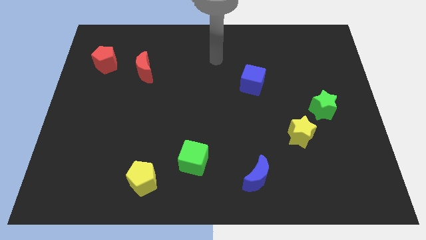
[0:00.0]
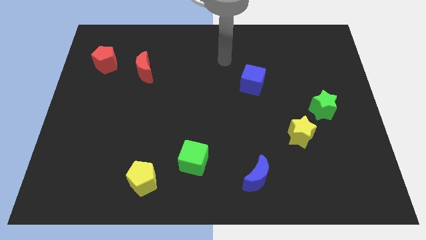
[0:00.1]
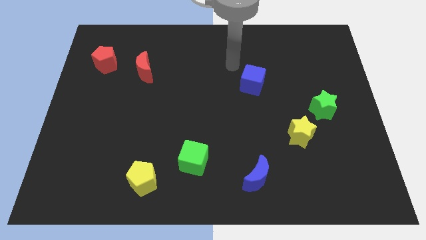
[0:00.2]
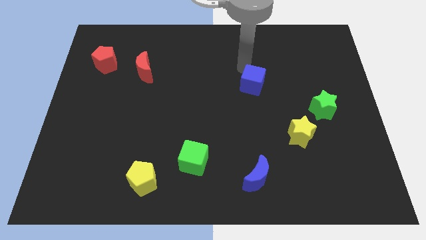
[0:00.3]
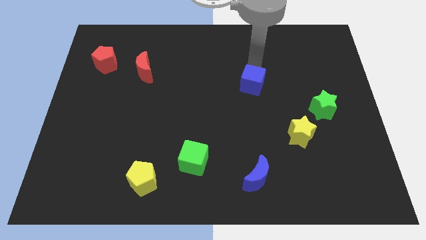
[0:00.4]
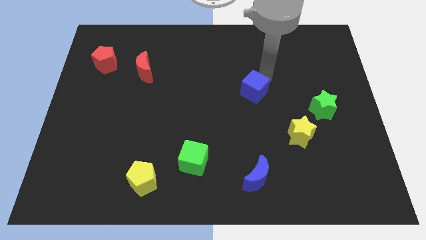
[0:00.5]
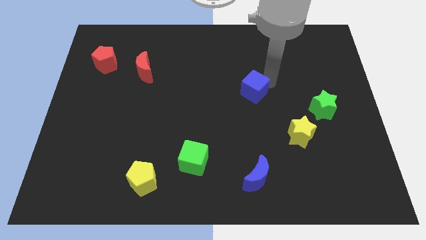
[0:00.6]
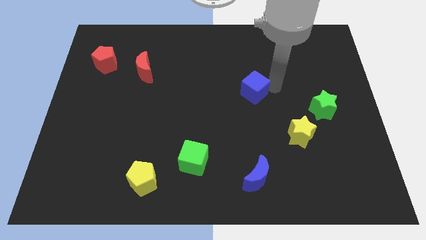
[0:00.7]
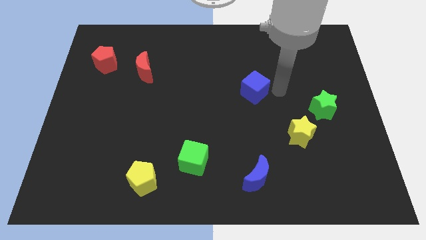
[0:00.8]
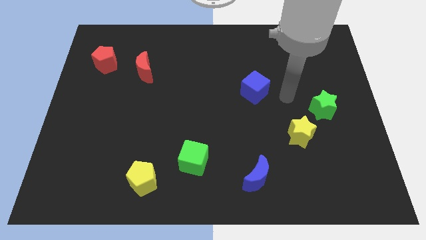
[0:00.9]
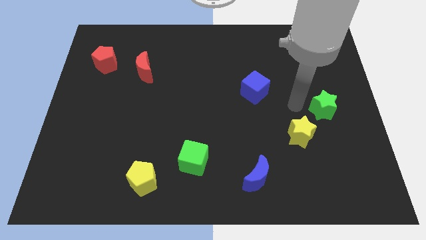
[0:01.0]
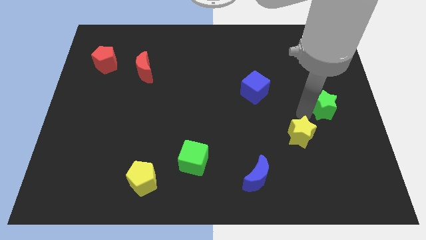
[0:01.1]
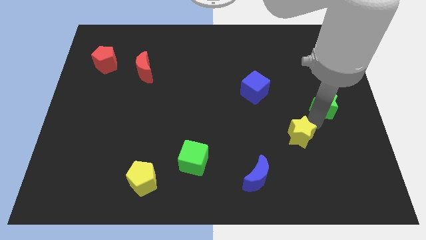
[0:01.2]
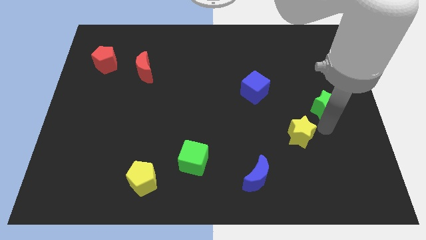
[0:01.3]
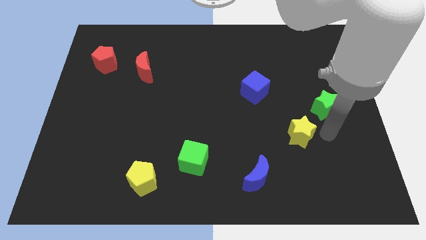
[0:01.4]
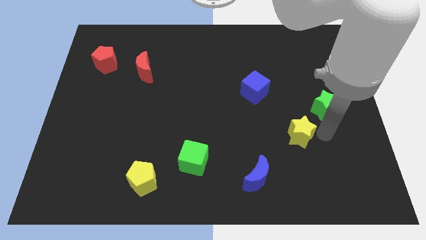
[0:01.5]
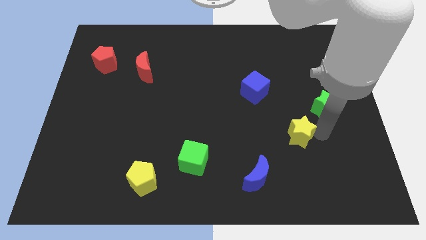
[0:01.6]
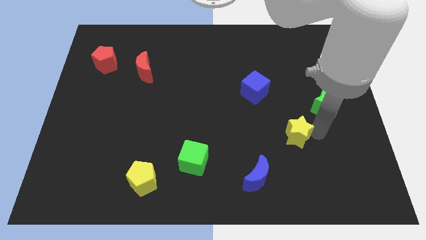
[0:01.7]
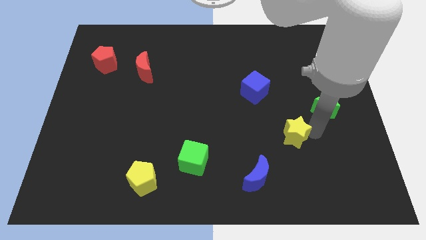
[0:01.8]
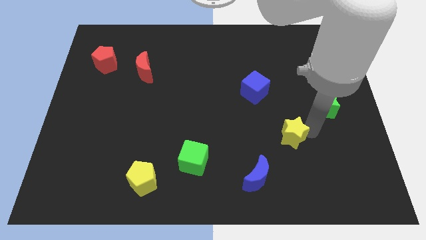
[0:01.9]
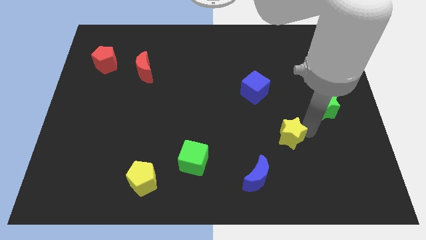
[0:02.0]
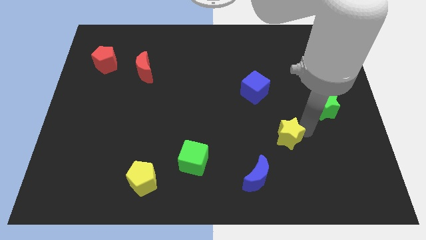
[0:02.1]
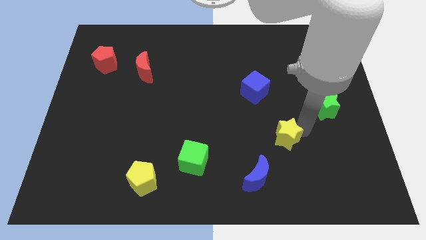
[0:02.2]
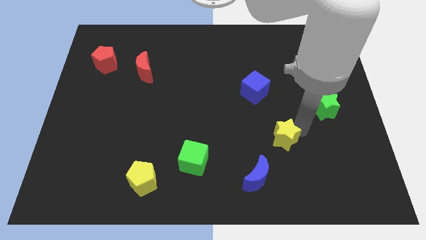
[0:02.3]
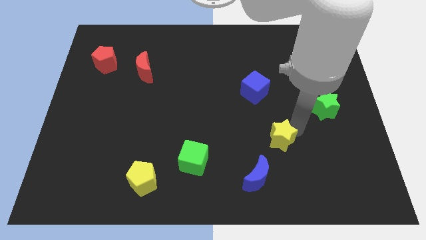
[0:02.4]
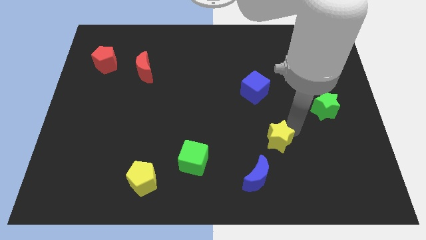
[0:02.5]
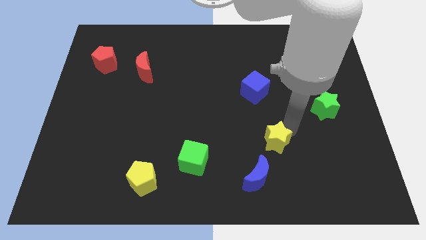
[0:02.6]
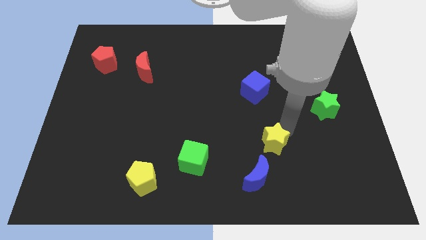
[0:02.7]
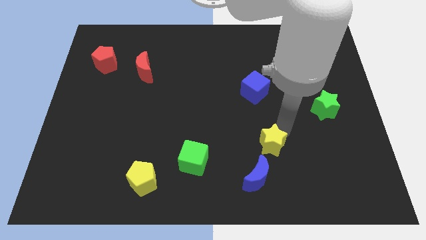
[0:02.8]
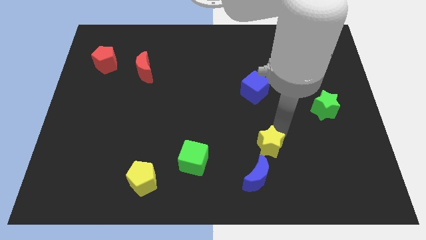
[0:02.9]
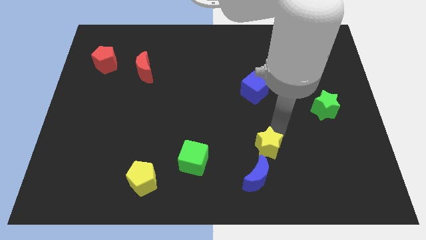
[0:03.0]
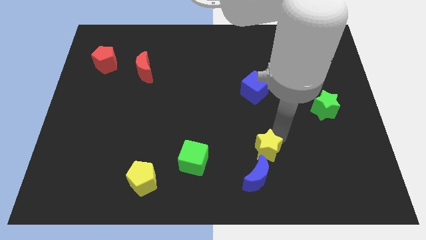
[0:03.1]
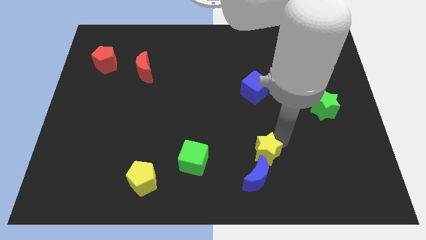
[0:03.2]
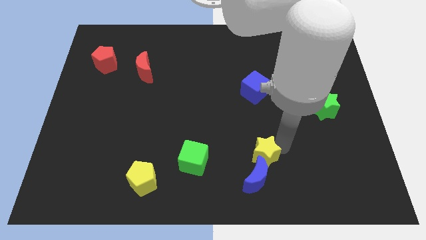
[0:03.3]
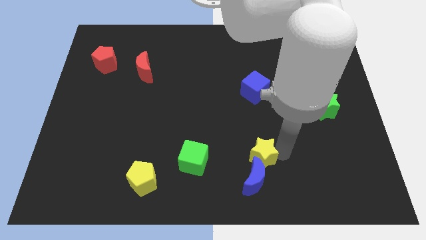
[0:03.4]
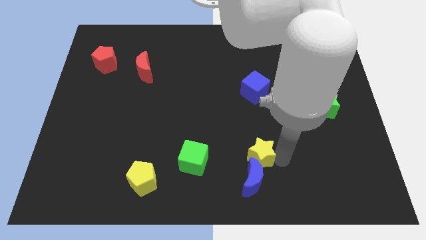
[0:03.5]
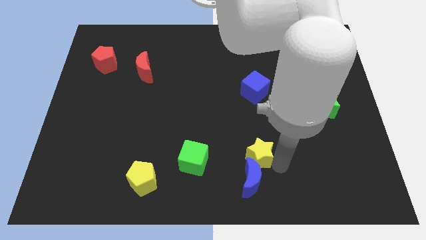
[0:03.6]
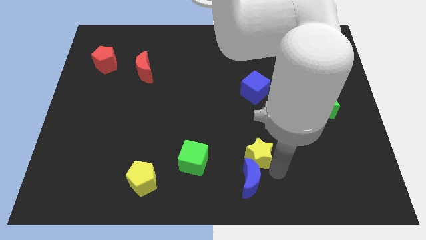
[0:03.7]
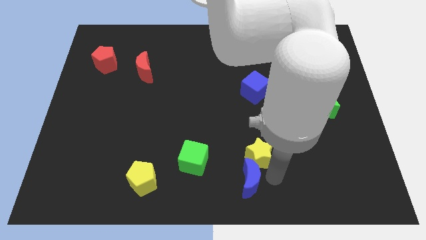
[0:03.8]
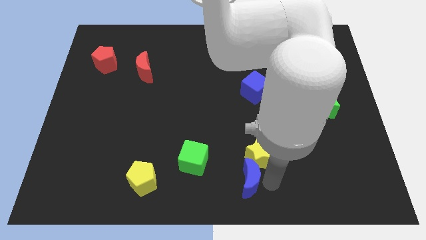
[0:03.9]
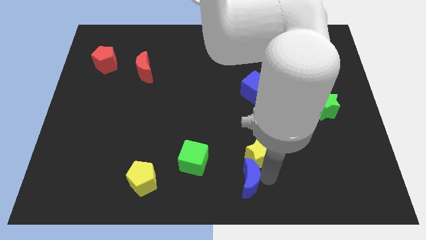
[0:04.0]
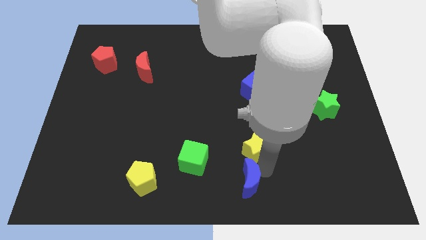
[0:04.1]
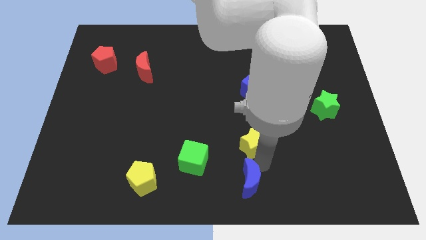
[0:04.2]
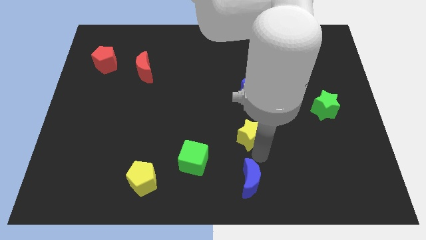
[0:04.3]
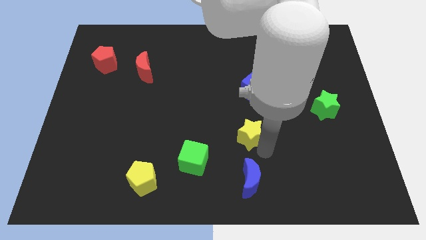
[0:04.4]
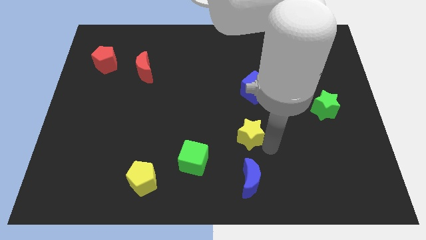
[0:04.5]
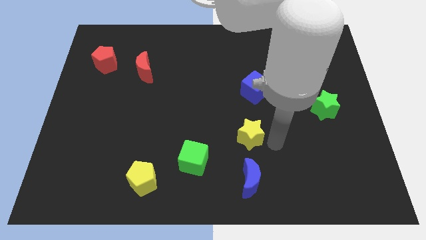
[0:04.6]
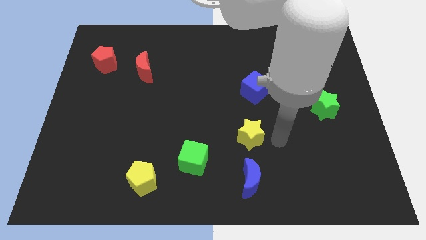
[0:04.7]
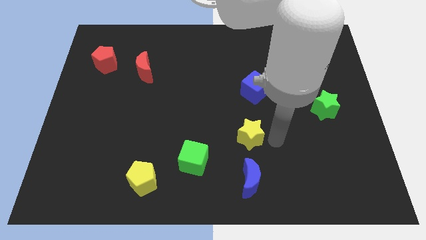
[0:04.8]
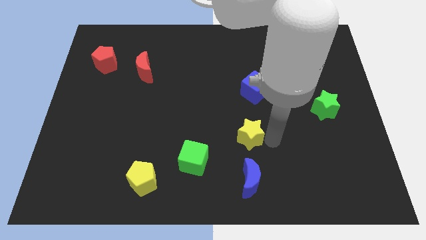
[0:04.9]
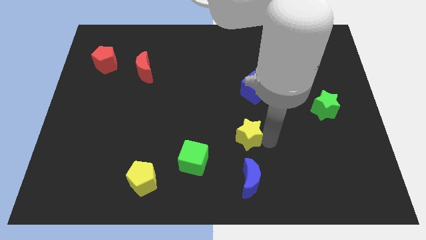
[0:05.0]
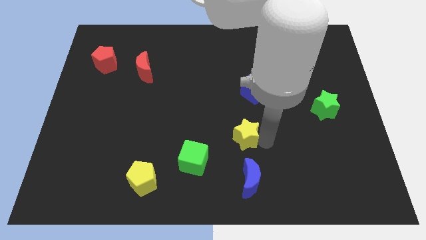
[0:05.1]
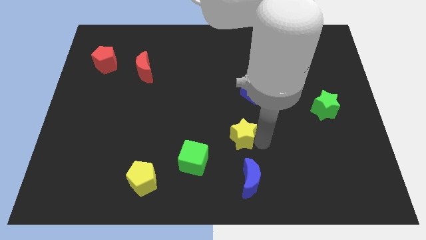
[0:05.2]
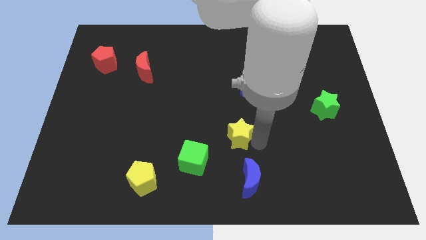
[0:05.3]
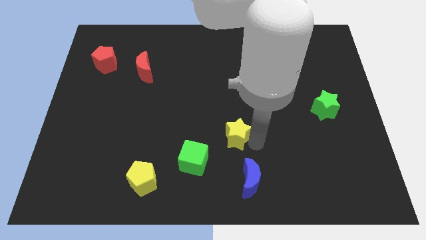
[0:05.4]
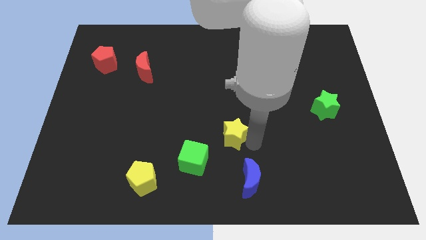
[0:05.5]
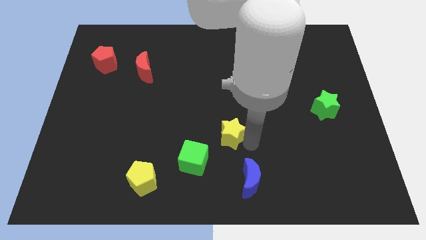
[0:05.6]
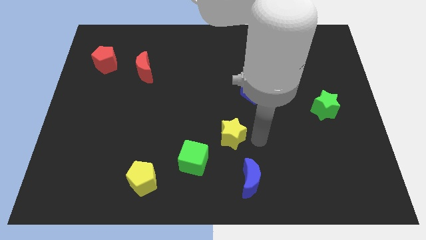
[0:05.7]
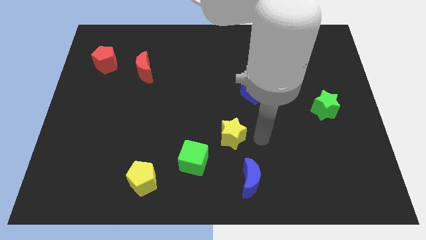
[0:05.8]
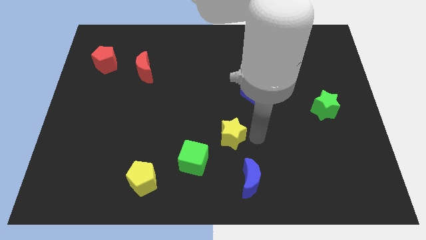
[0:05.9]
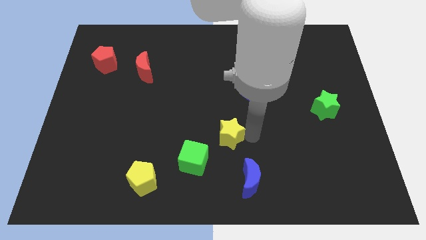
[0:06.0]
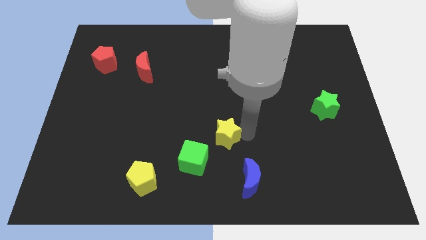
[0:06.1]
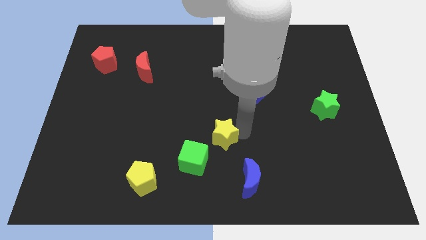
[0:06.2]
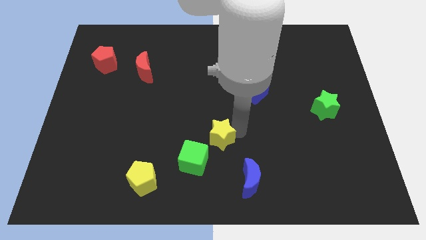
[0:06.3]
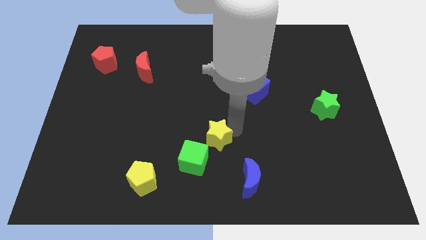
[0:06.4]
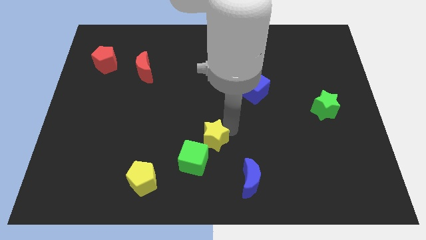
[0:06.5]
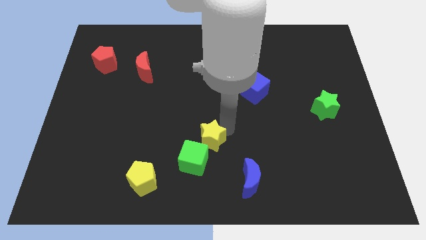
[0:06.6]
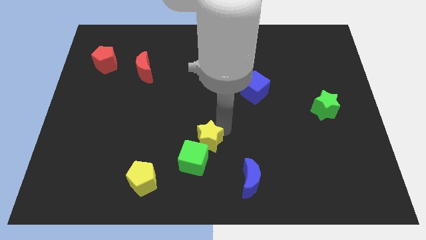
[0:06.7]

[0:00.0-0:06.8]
move the yellow star left

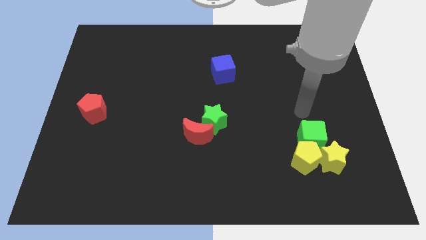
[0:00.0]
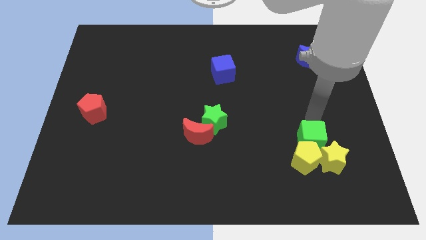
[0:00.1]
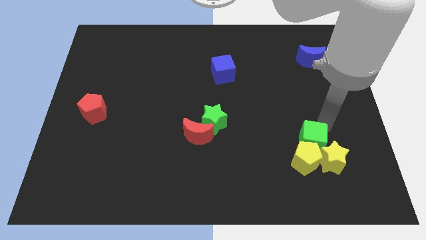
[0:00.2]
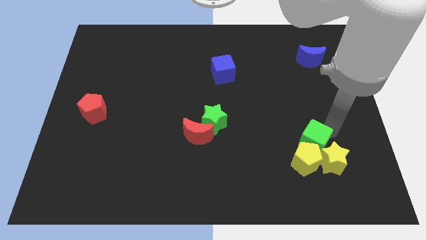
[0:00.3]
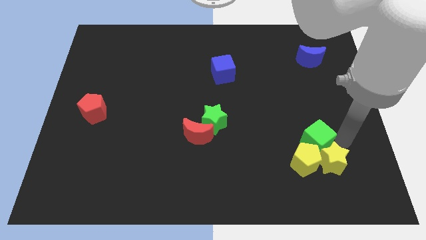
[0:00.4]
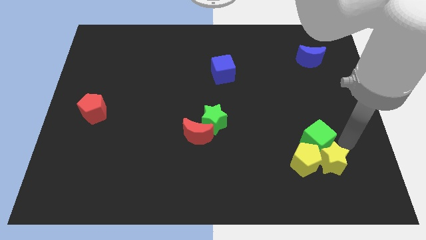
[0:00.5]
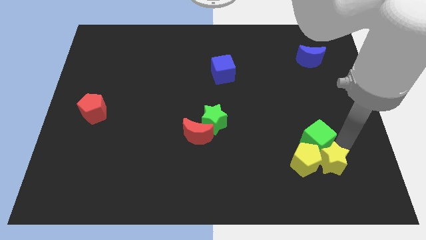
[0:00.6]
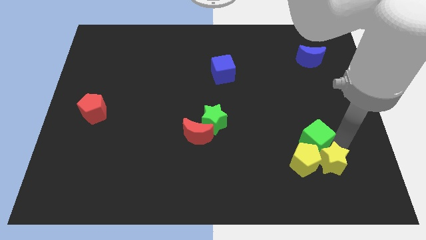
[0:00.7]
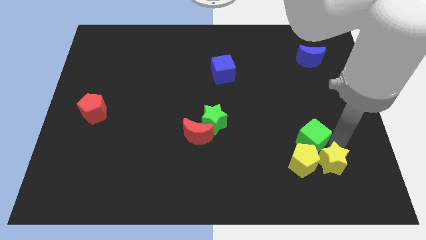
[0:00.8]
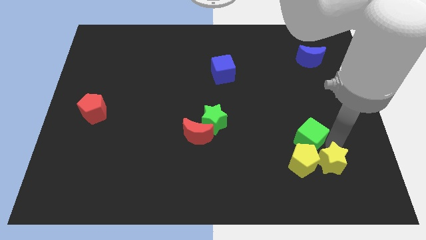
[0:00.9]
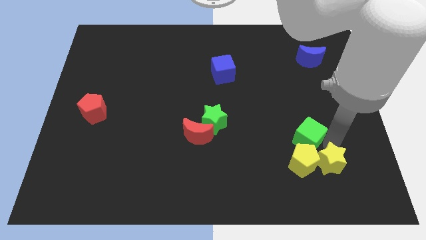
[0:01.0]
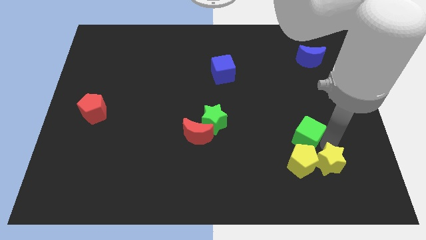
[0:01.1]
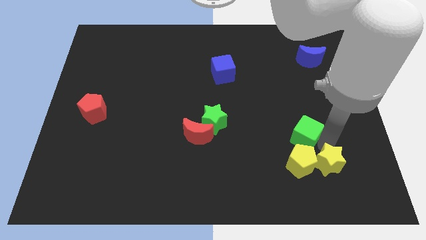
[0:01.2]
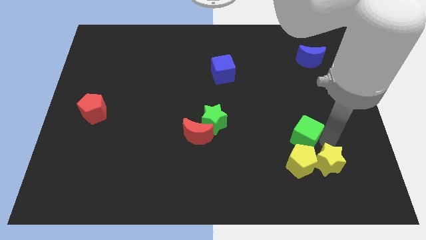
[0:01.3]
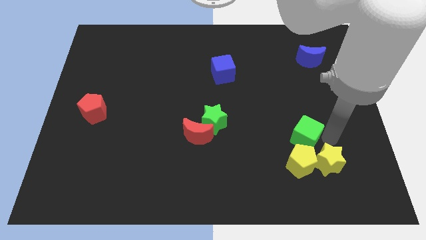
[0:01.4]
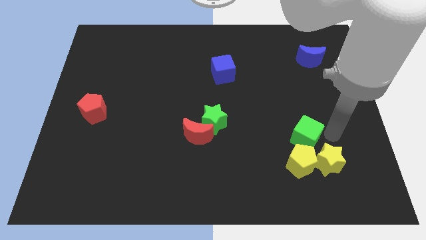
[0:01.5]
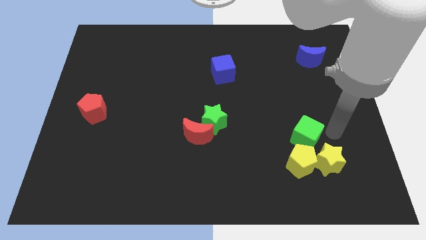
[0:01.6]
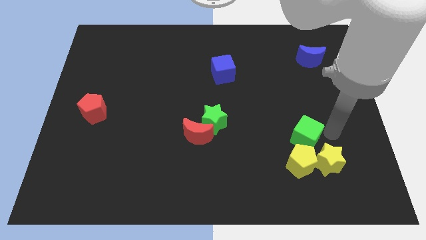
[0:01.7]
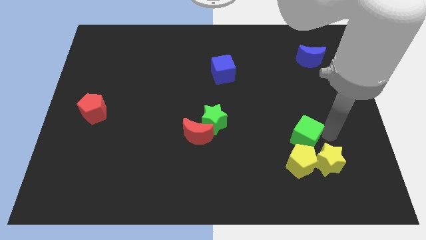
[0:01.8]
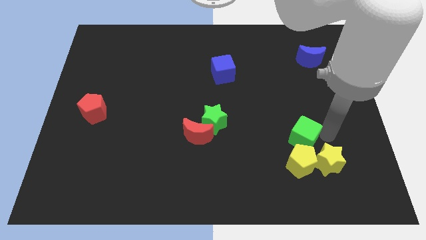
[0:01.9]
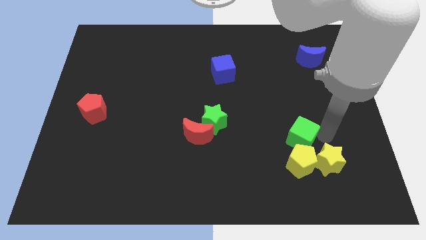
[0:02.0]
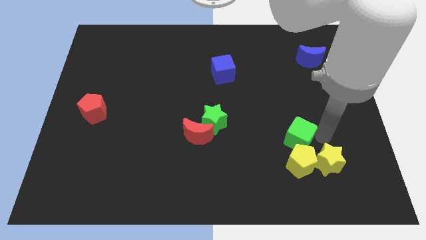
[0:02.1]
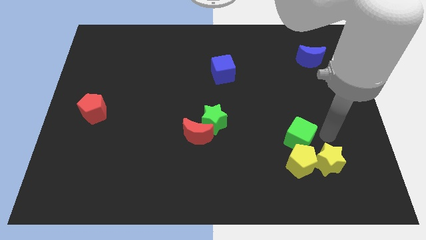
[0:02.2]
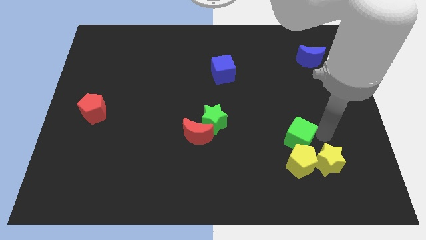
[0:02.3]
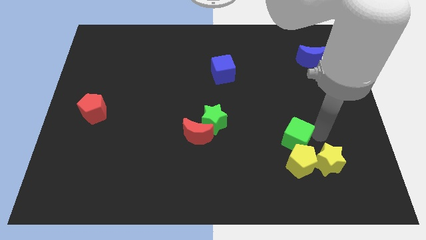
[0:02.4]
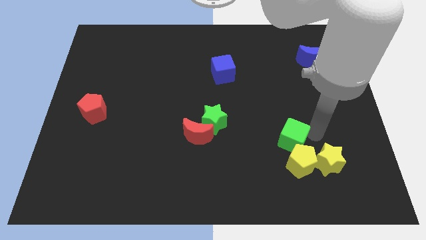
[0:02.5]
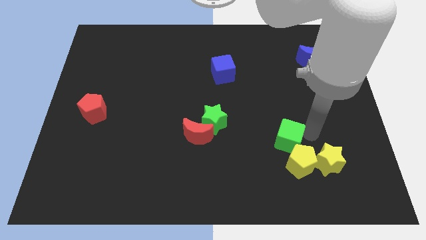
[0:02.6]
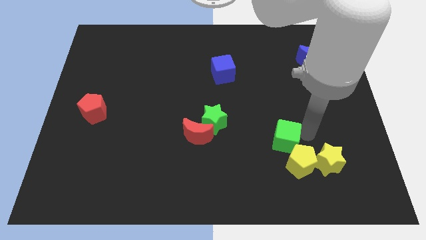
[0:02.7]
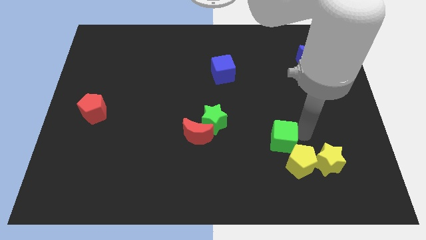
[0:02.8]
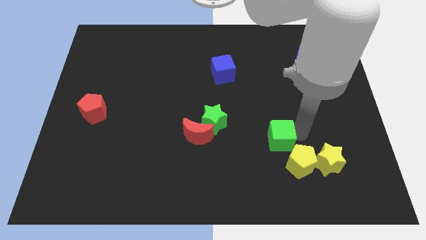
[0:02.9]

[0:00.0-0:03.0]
slide the green cube a little left
